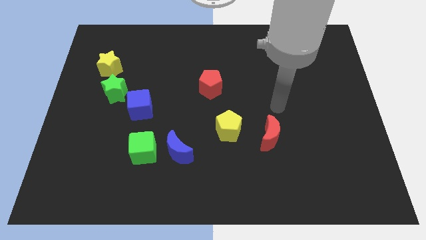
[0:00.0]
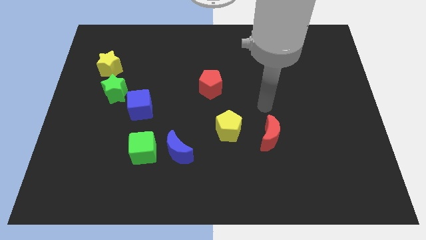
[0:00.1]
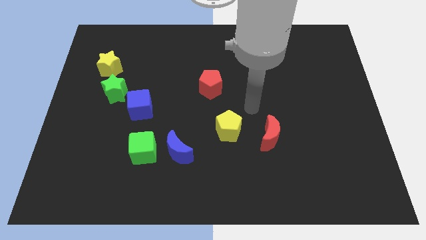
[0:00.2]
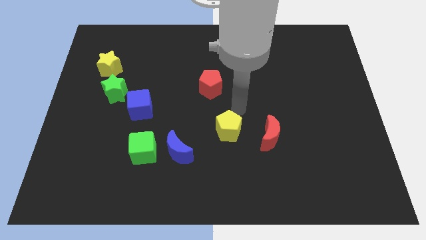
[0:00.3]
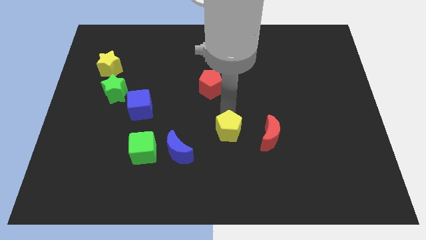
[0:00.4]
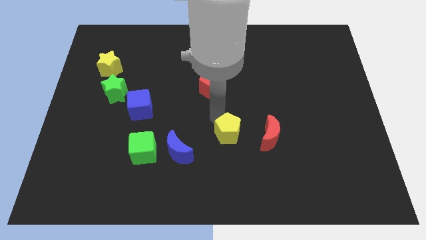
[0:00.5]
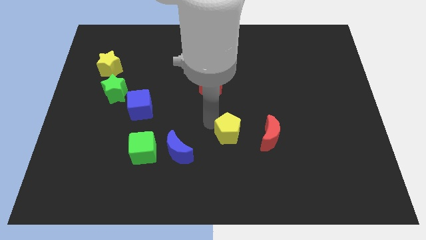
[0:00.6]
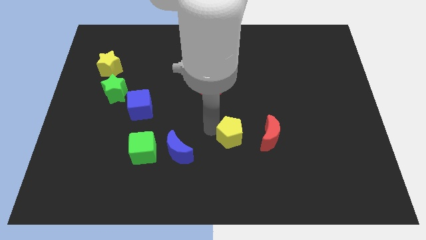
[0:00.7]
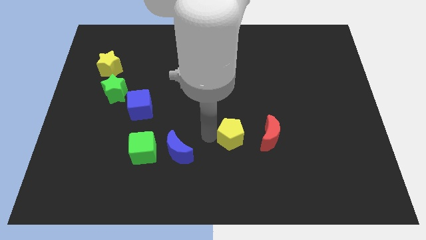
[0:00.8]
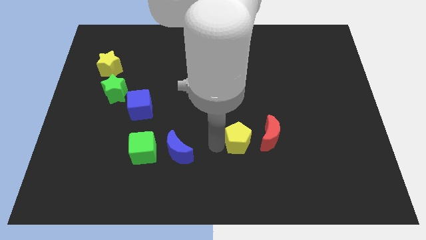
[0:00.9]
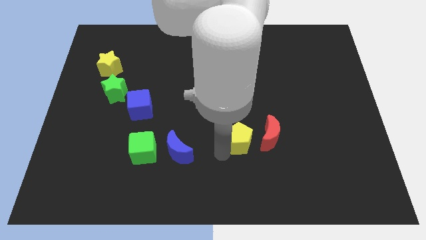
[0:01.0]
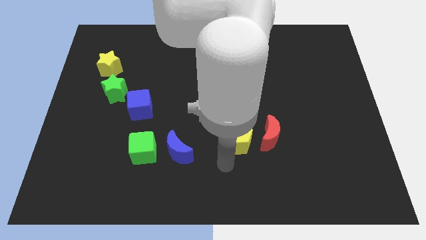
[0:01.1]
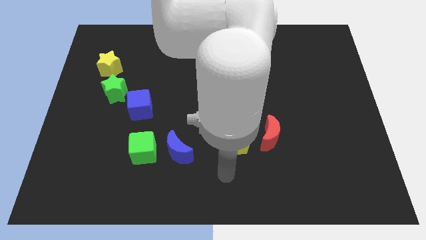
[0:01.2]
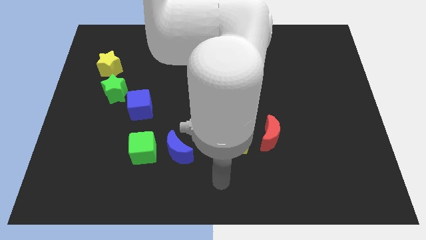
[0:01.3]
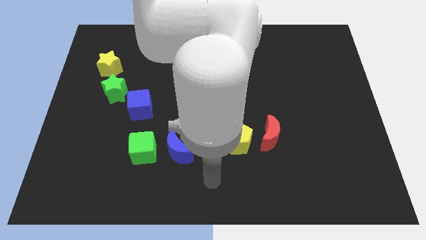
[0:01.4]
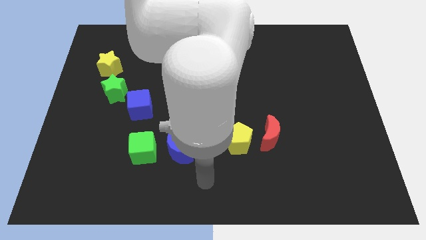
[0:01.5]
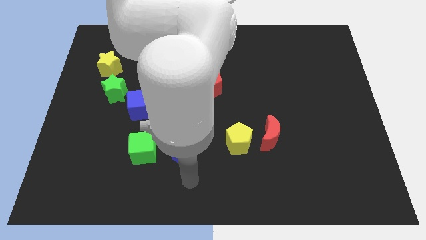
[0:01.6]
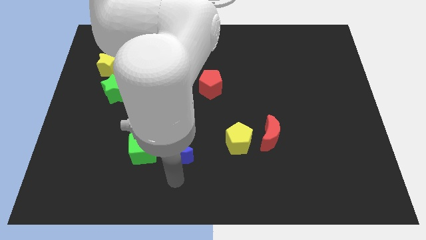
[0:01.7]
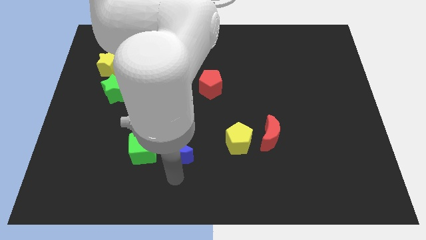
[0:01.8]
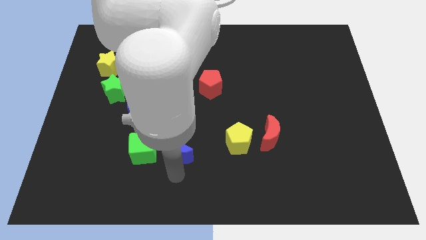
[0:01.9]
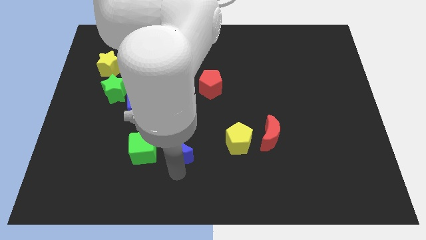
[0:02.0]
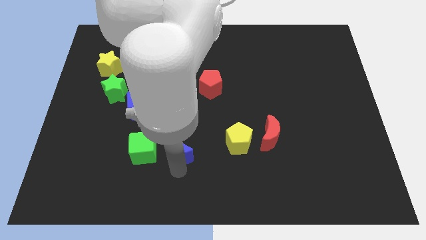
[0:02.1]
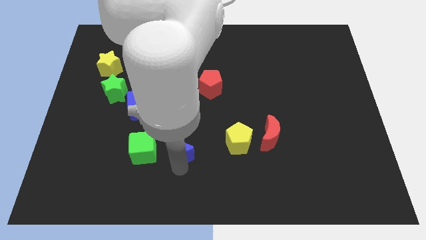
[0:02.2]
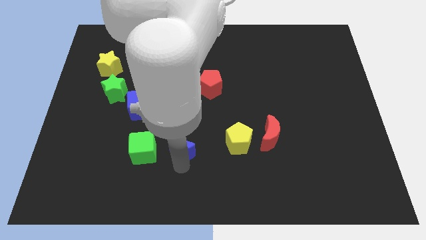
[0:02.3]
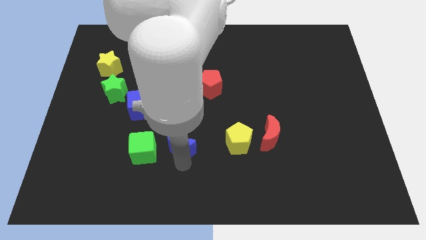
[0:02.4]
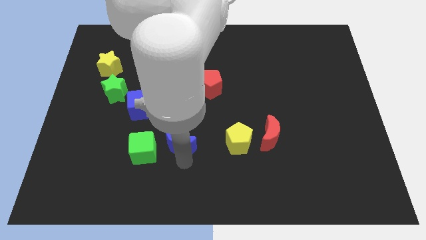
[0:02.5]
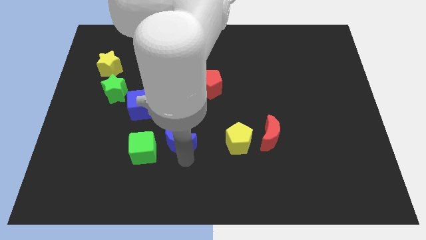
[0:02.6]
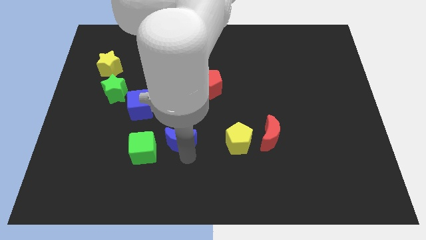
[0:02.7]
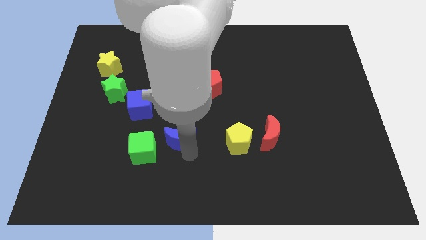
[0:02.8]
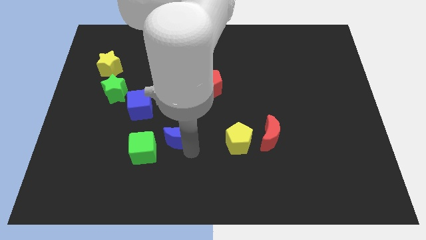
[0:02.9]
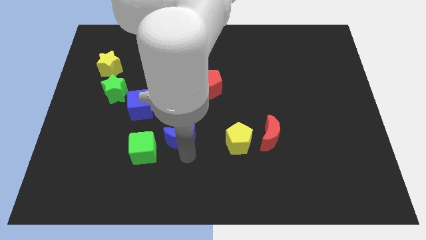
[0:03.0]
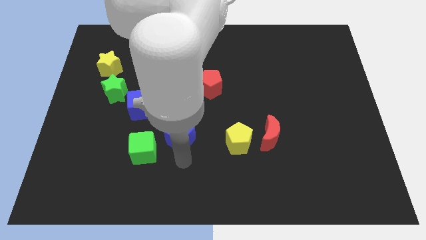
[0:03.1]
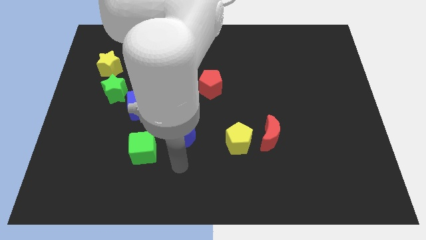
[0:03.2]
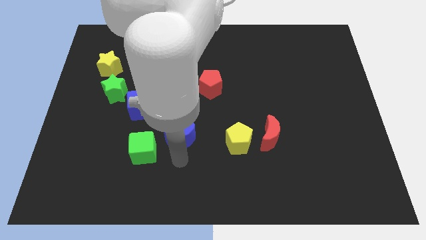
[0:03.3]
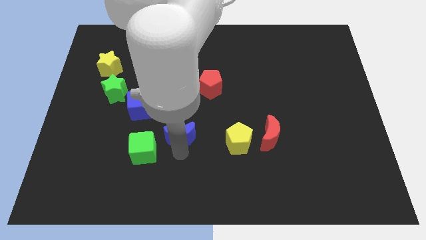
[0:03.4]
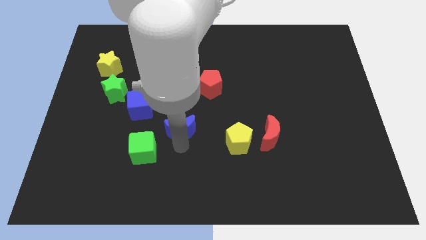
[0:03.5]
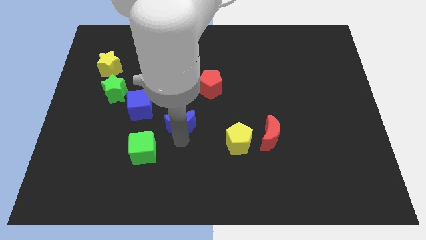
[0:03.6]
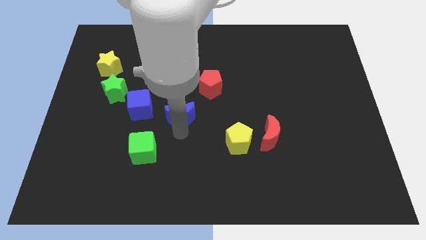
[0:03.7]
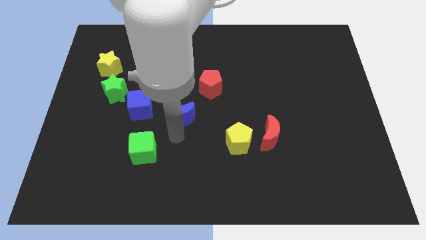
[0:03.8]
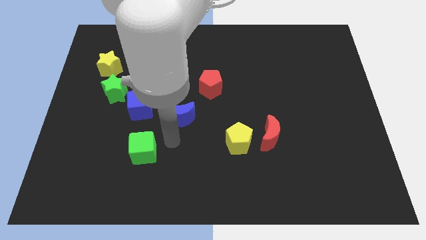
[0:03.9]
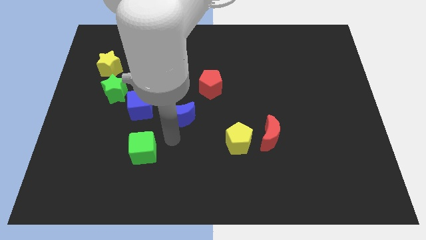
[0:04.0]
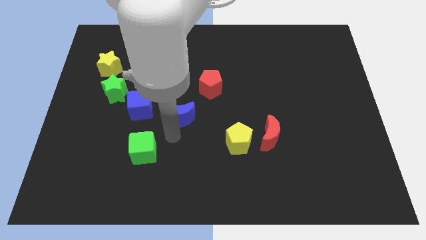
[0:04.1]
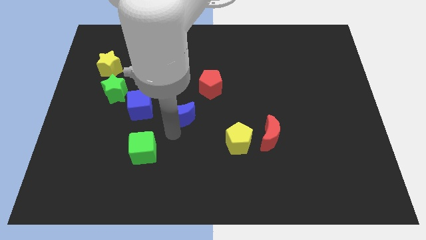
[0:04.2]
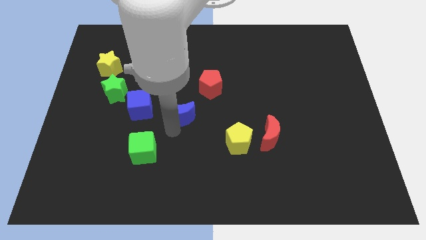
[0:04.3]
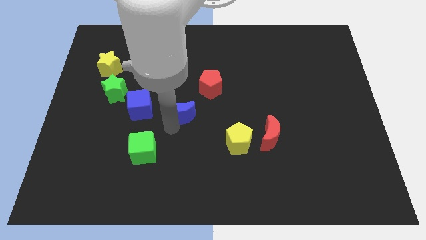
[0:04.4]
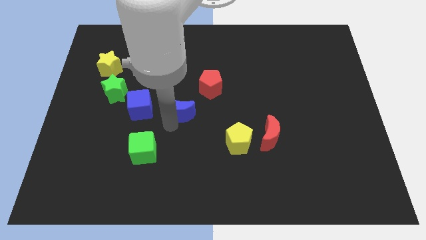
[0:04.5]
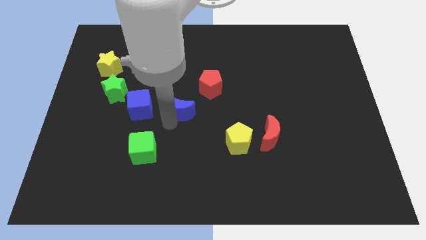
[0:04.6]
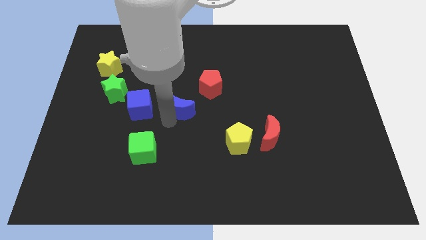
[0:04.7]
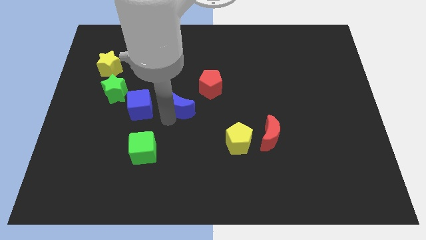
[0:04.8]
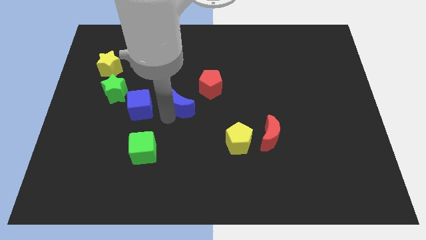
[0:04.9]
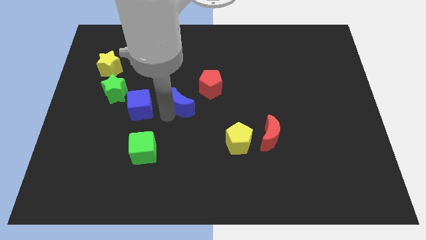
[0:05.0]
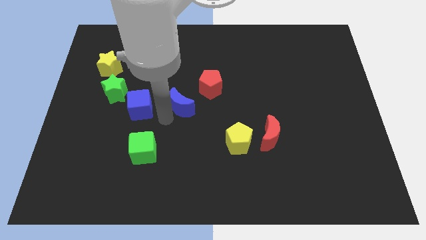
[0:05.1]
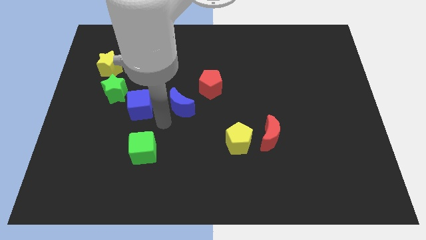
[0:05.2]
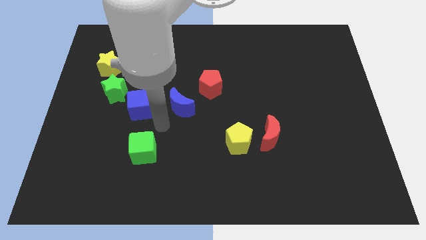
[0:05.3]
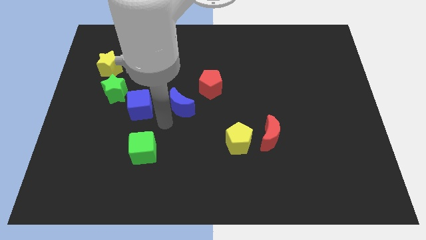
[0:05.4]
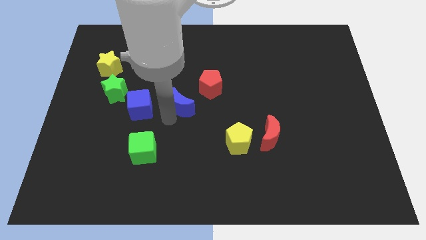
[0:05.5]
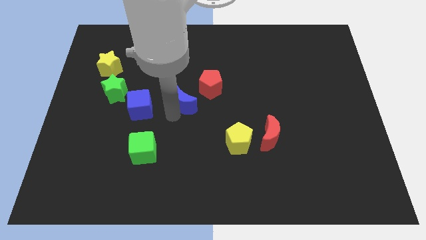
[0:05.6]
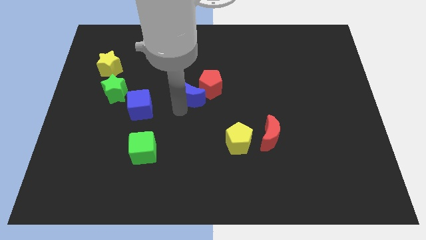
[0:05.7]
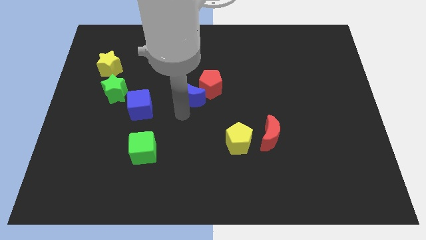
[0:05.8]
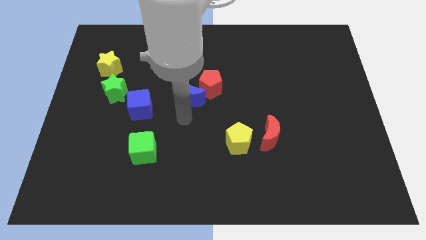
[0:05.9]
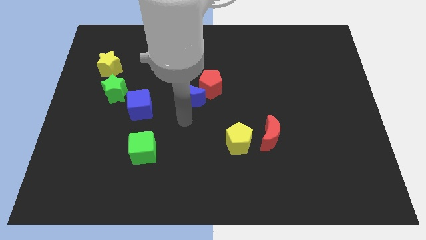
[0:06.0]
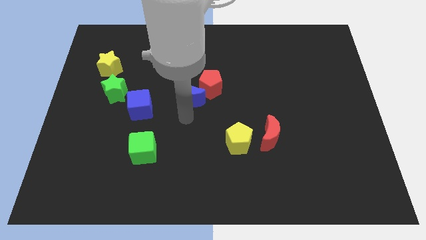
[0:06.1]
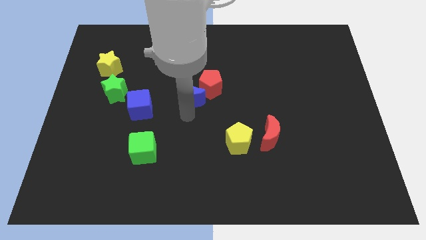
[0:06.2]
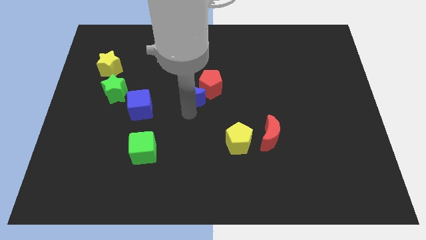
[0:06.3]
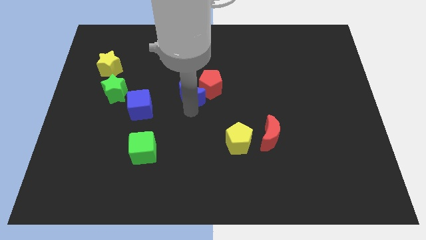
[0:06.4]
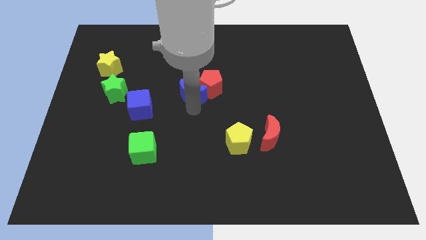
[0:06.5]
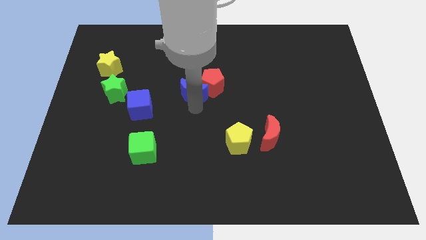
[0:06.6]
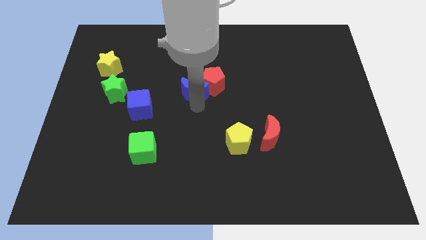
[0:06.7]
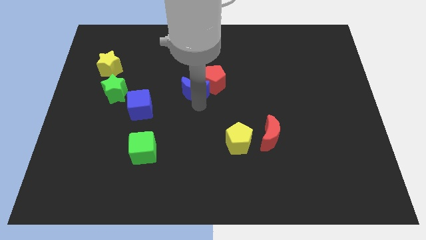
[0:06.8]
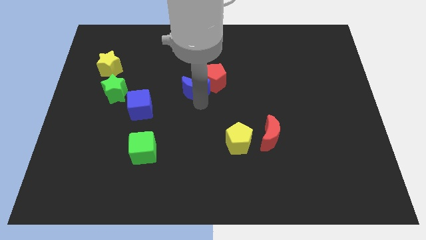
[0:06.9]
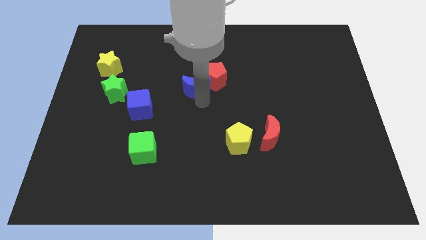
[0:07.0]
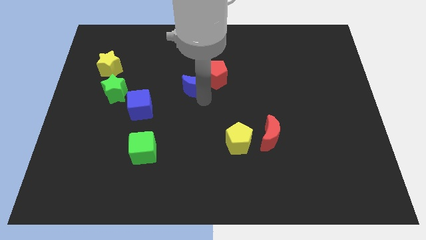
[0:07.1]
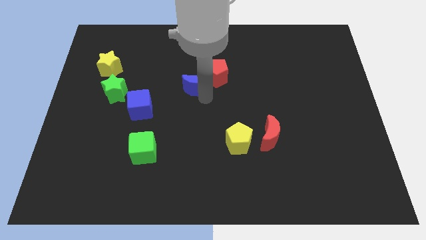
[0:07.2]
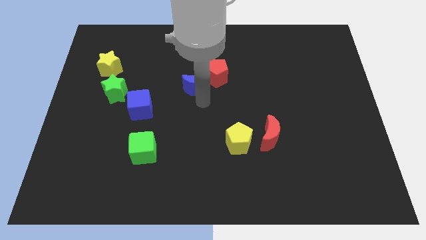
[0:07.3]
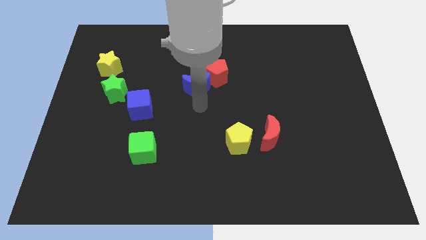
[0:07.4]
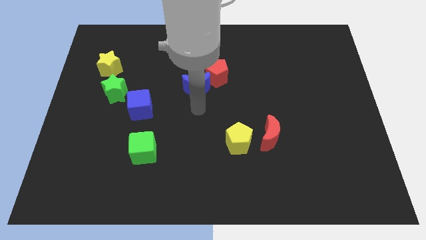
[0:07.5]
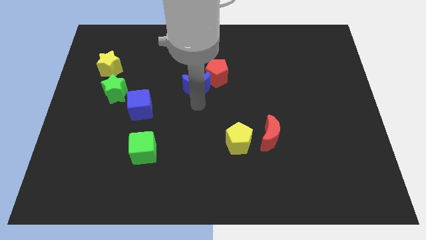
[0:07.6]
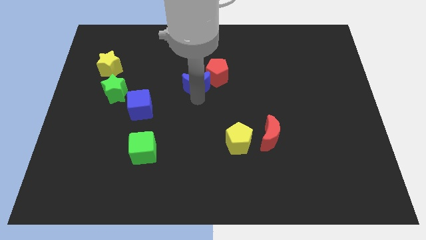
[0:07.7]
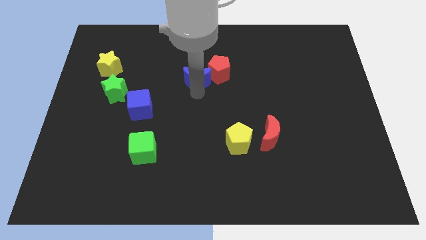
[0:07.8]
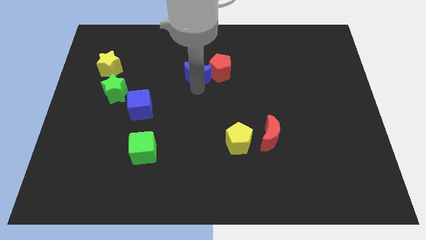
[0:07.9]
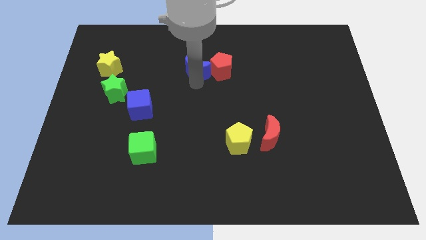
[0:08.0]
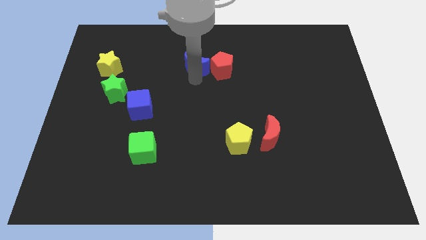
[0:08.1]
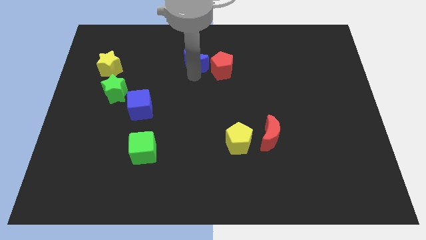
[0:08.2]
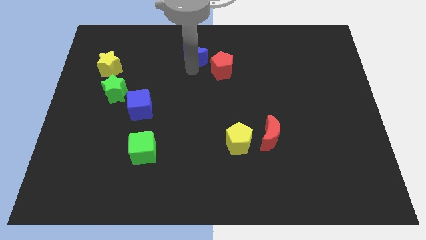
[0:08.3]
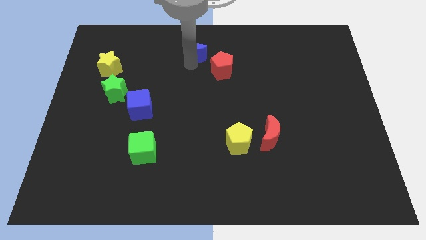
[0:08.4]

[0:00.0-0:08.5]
push the blue moon to the top
